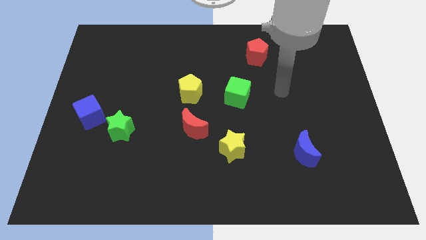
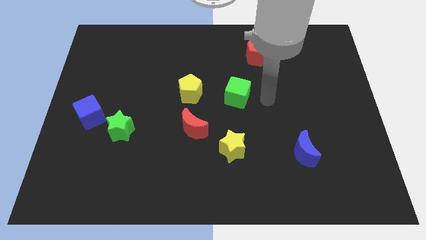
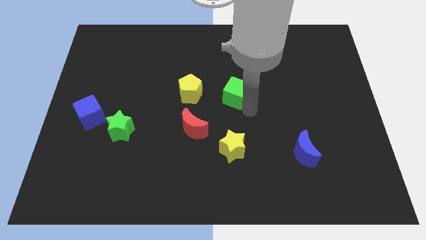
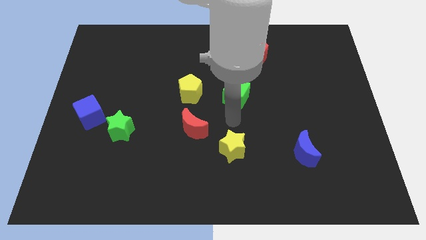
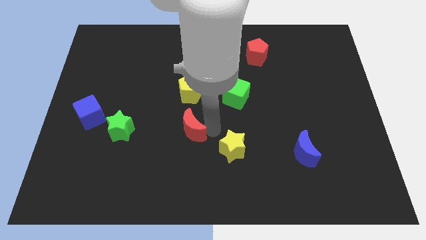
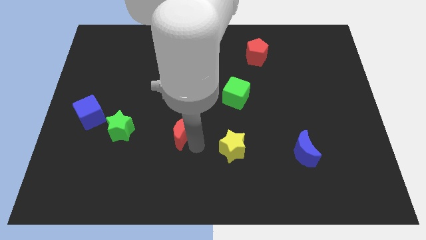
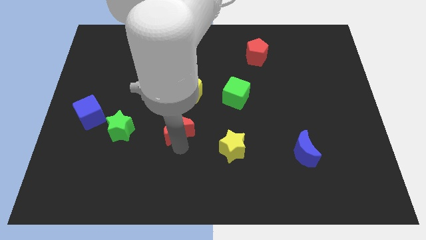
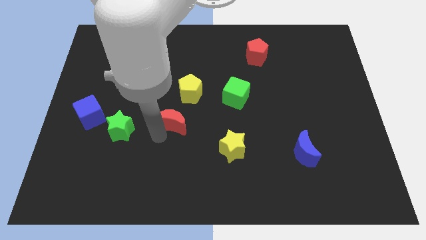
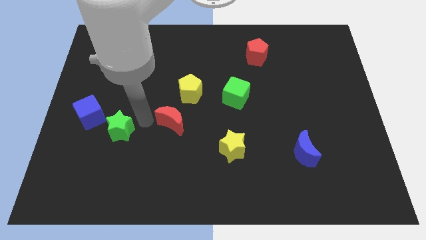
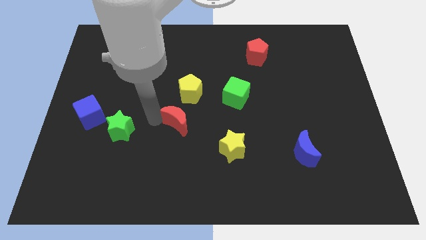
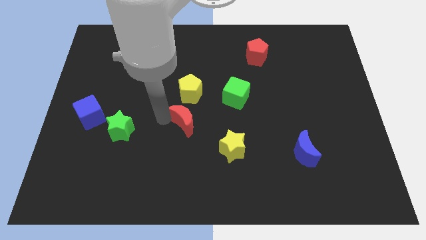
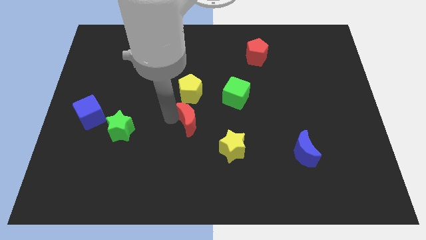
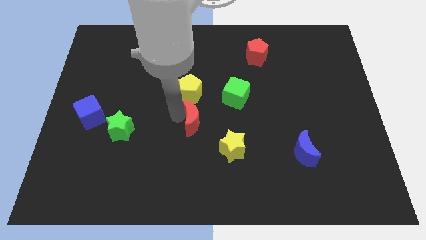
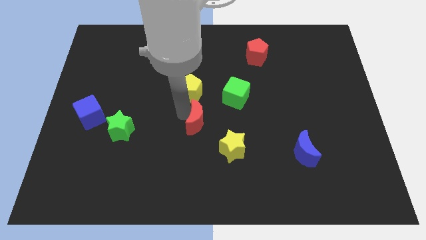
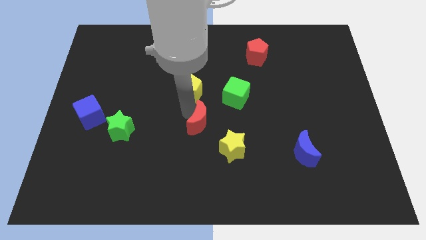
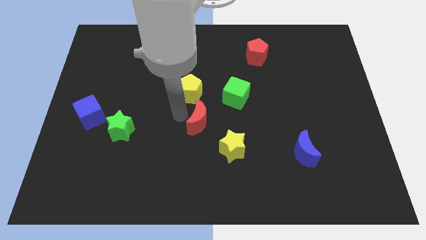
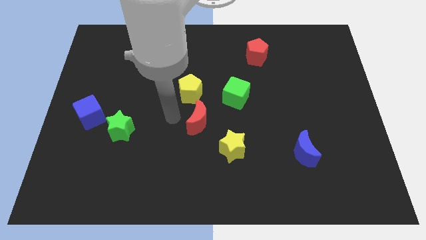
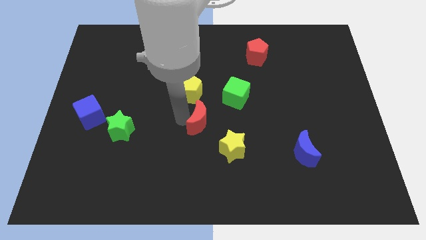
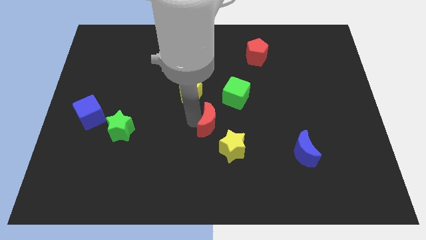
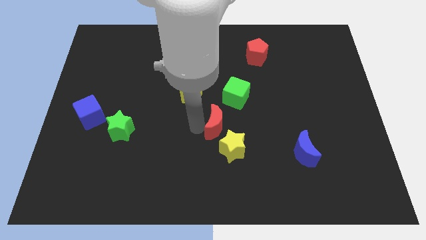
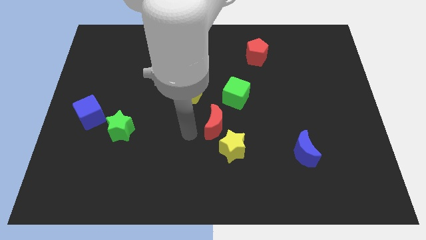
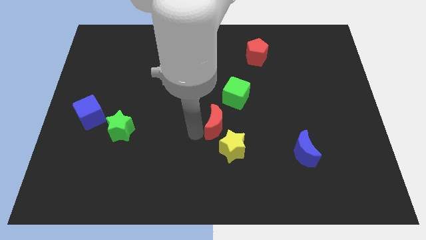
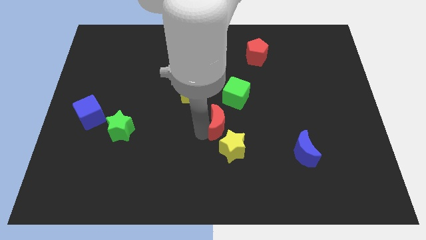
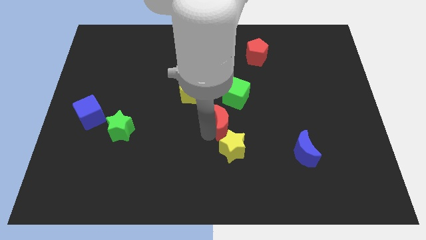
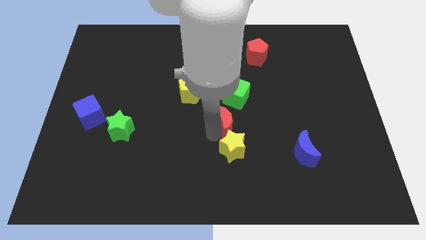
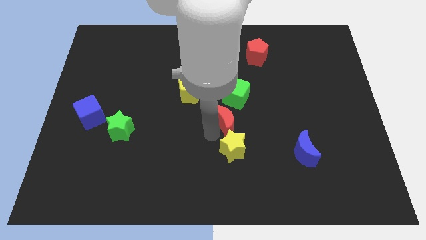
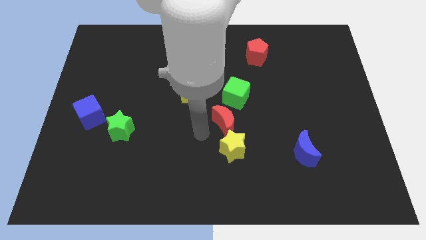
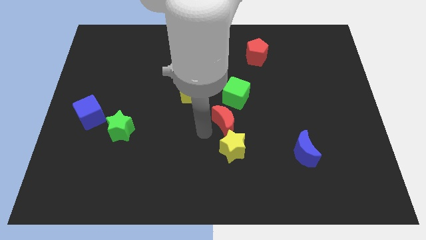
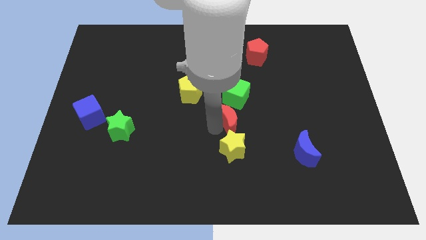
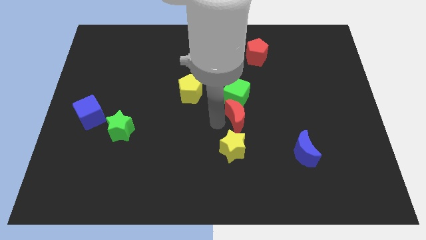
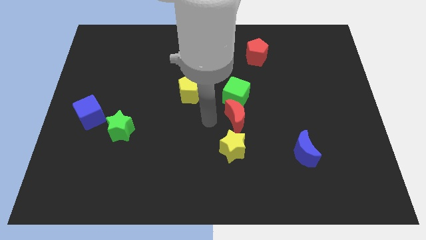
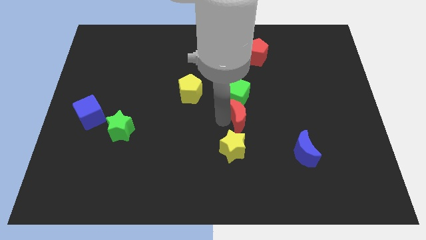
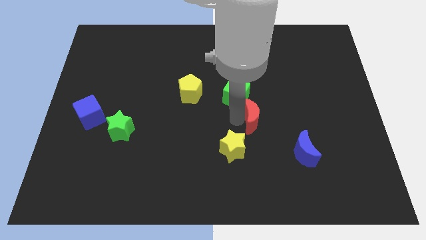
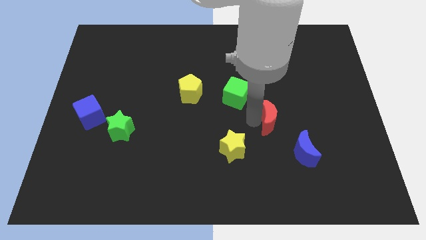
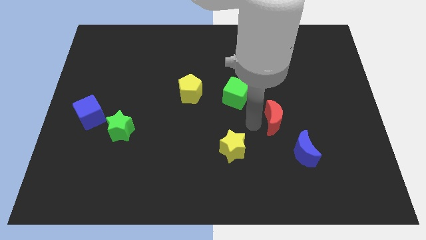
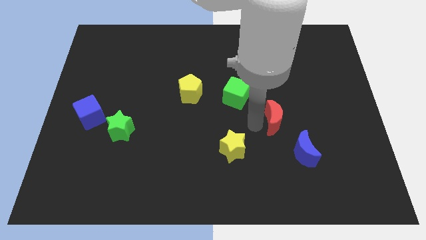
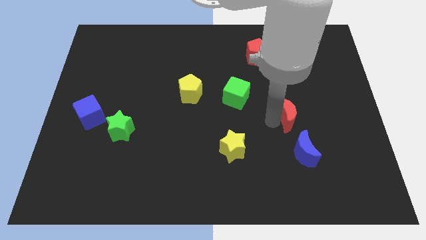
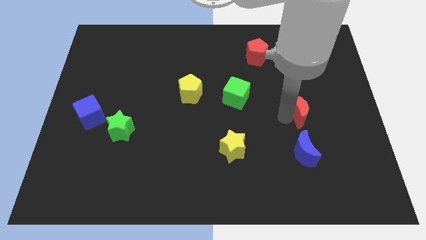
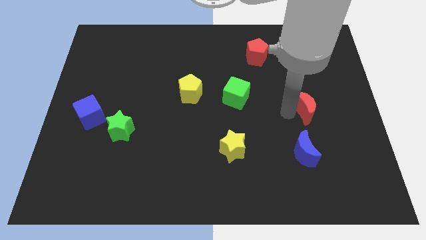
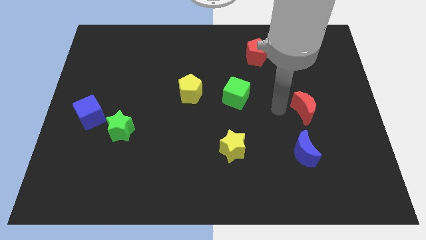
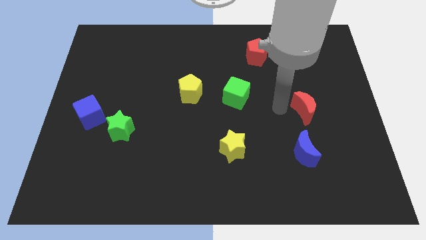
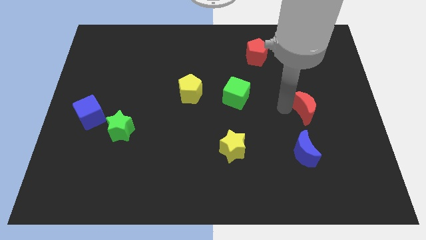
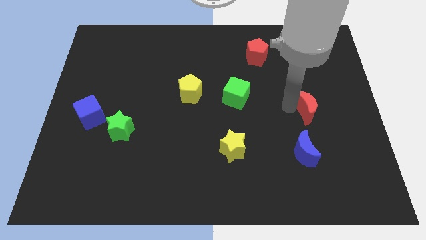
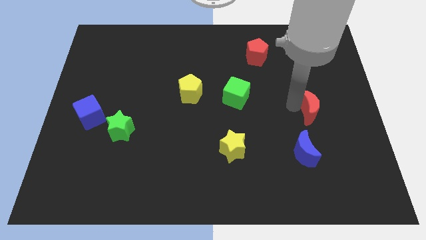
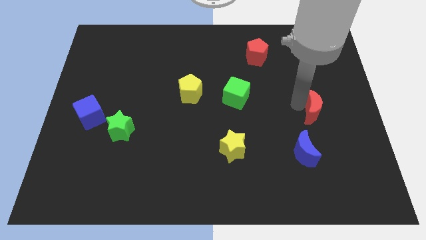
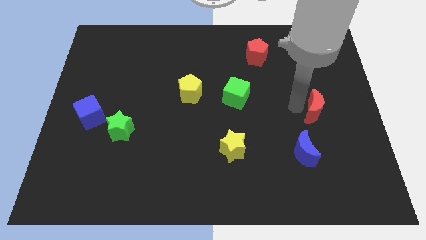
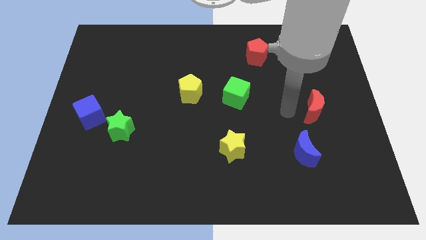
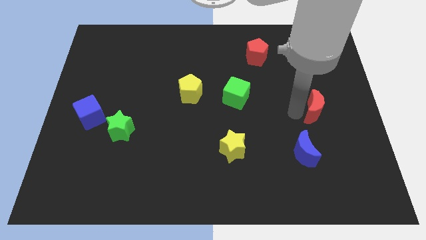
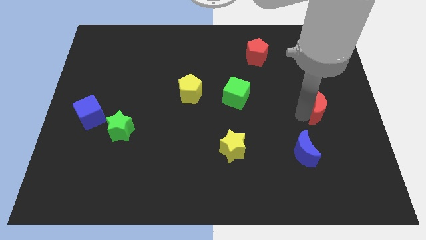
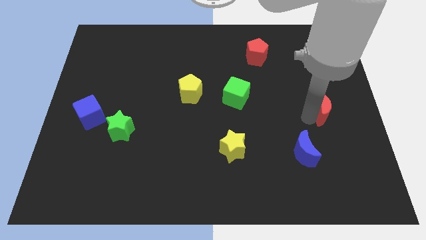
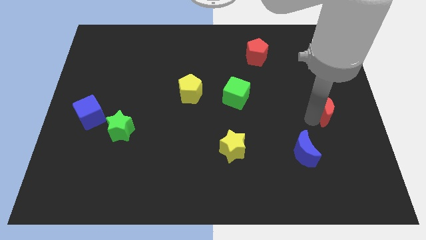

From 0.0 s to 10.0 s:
push the red moon to the right side

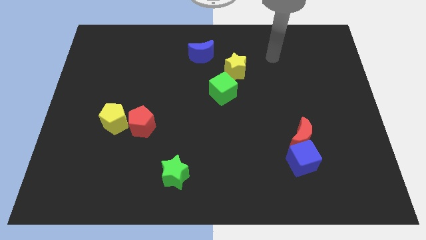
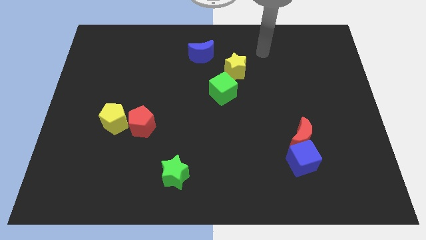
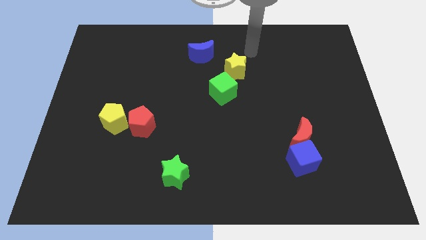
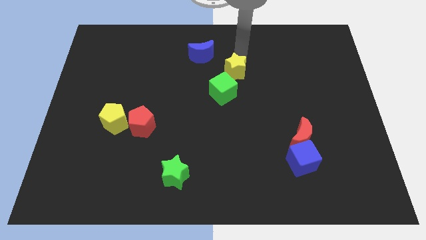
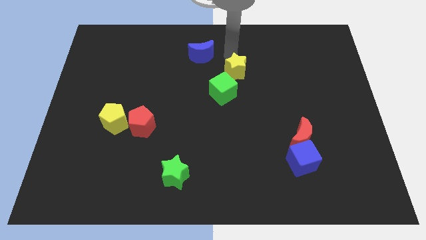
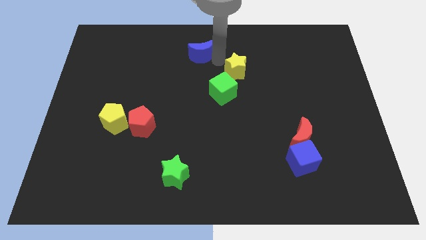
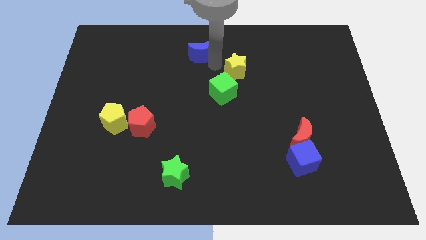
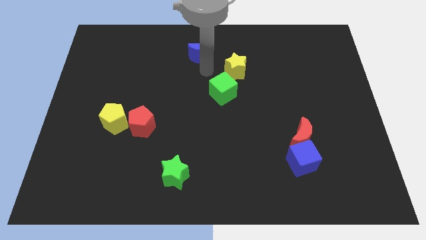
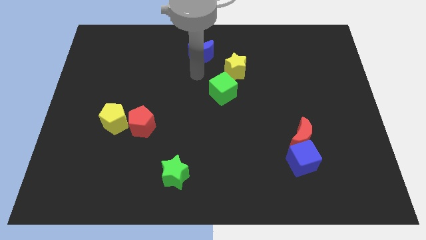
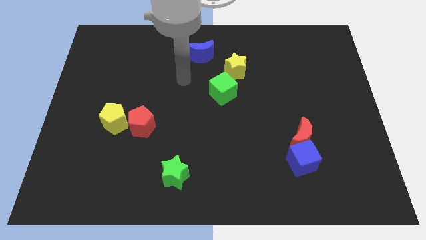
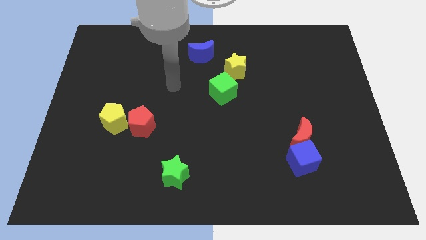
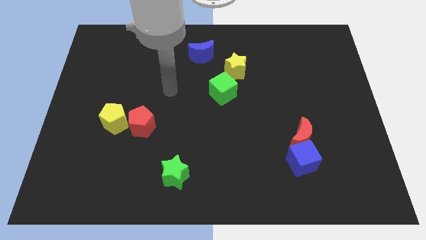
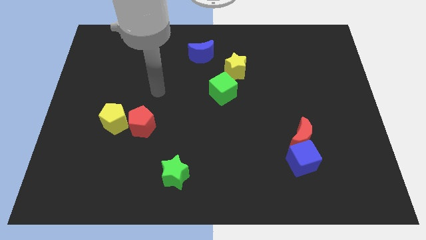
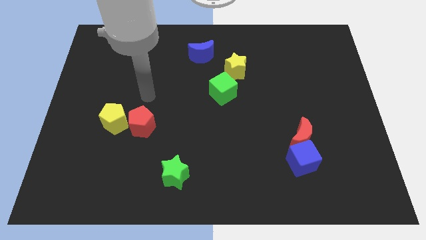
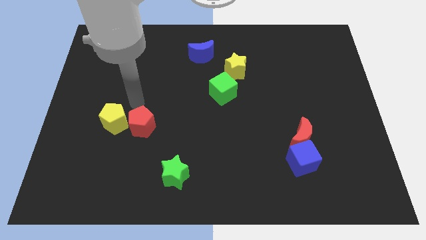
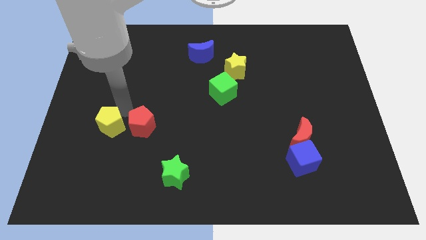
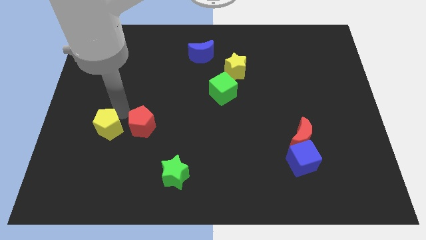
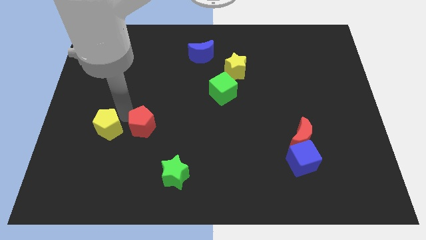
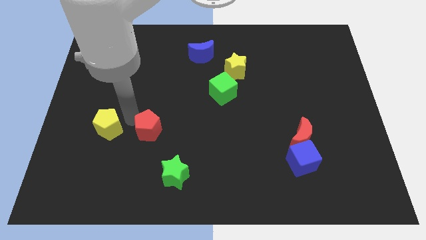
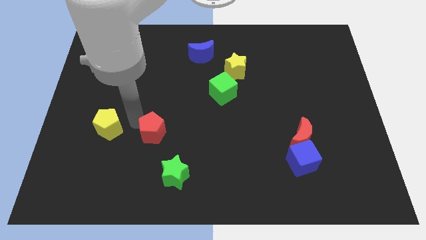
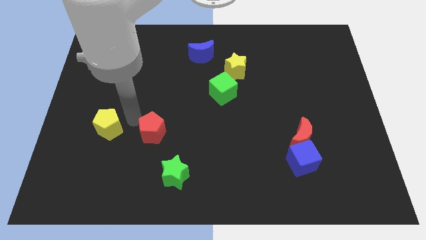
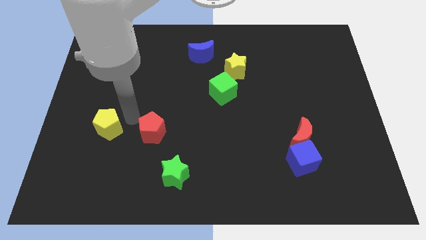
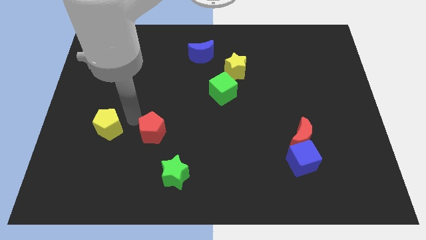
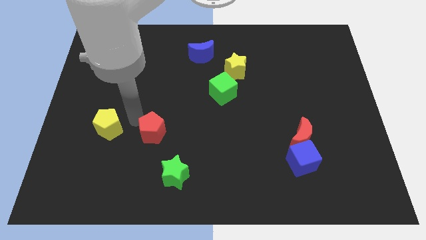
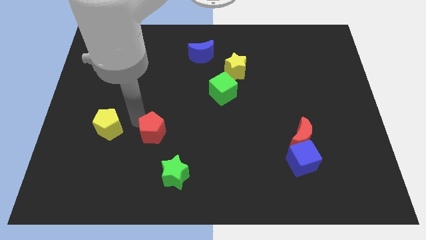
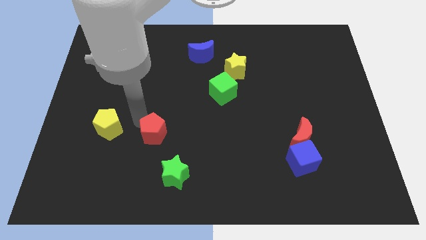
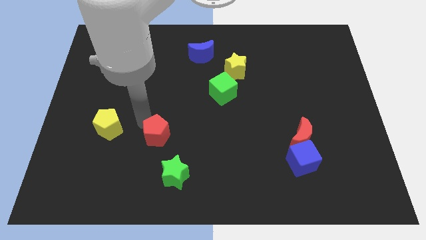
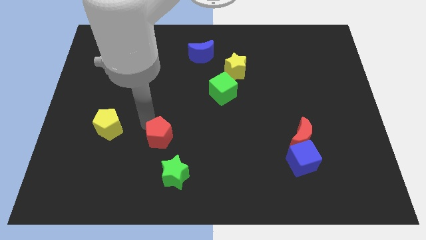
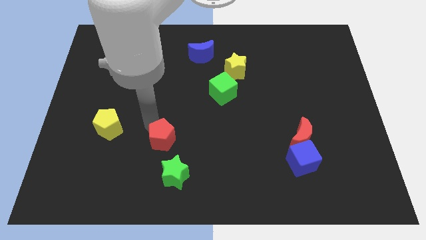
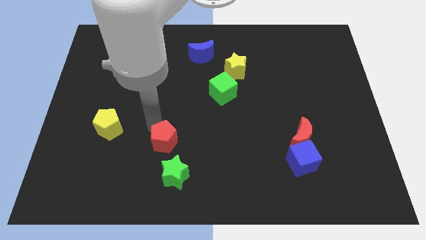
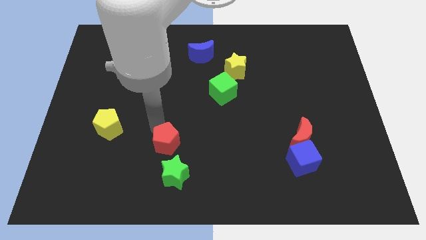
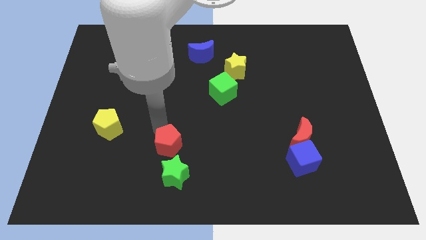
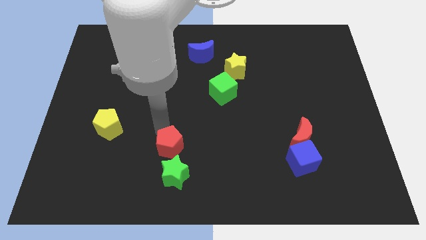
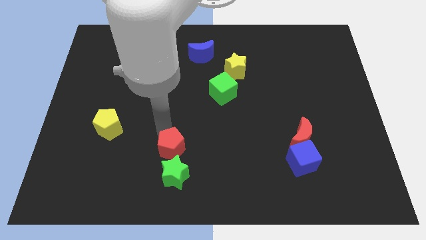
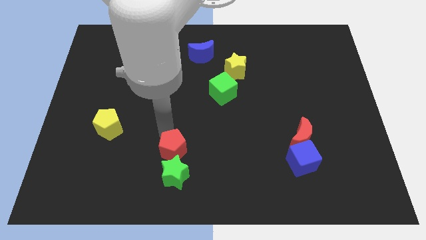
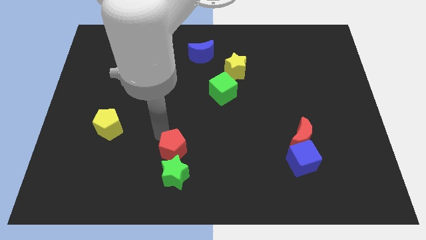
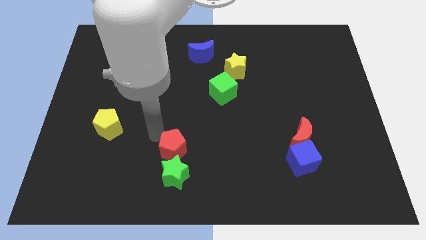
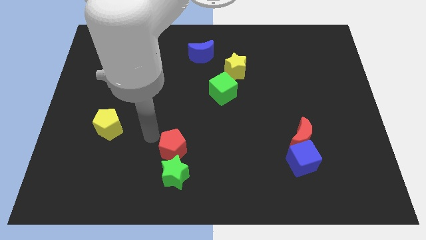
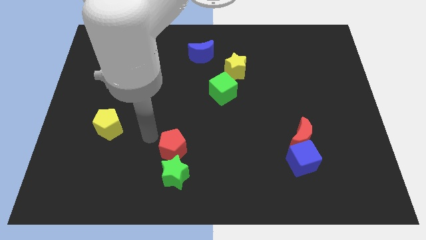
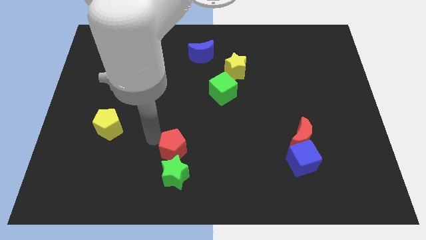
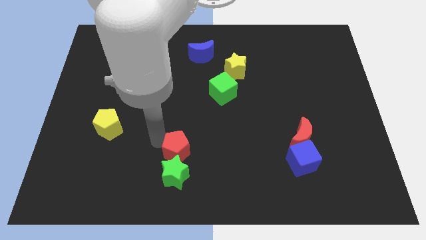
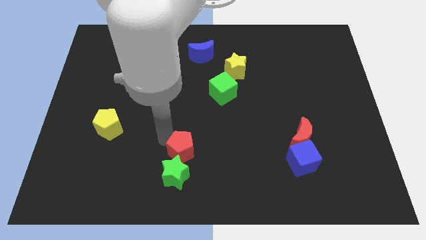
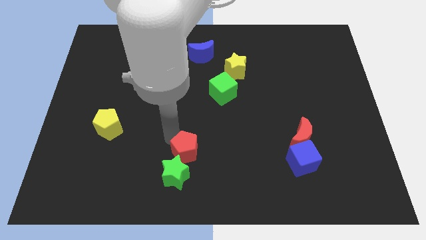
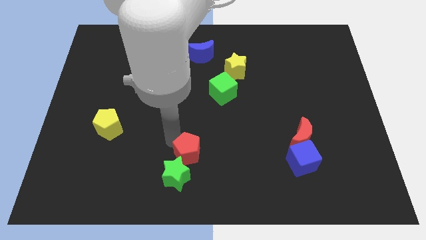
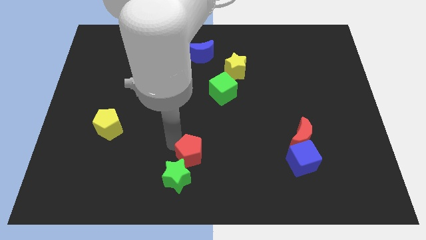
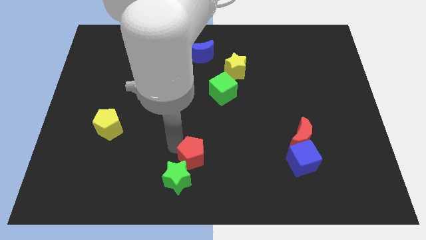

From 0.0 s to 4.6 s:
slide the red pentagon to the bottom side
